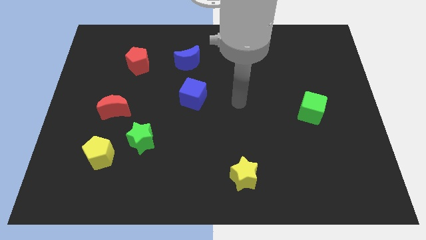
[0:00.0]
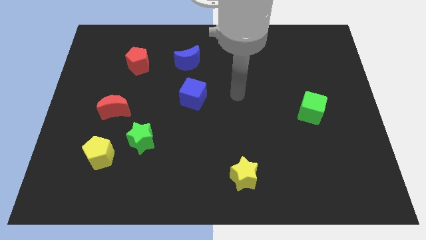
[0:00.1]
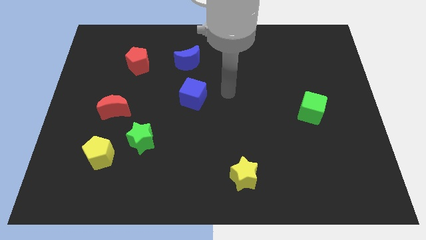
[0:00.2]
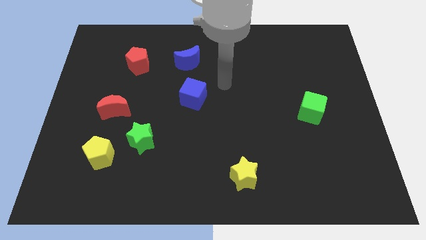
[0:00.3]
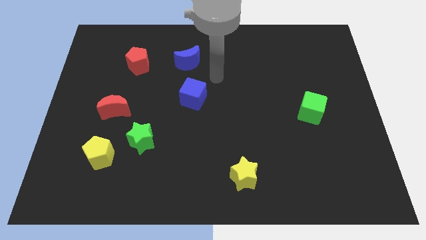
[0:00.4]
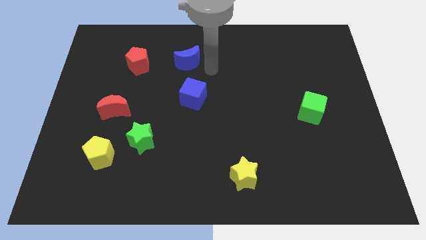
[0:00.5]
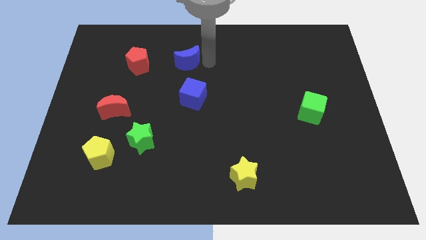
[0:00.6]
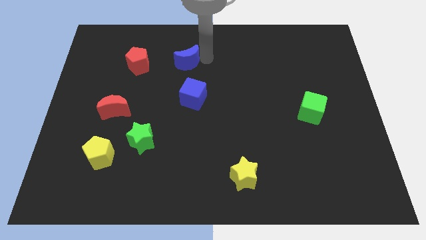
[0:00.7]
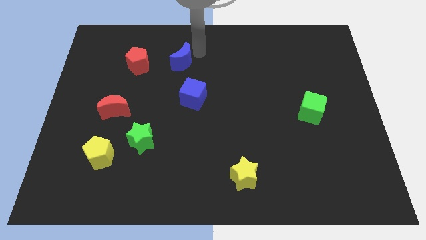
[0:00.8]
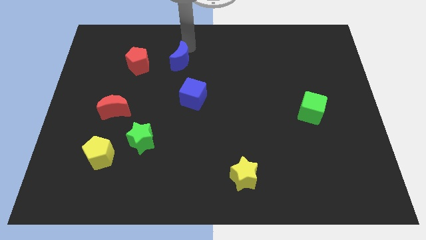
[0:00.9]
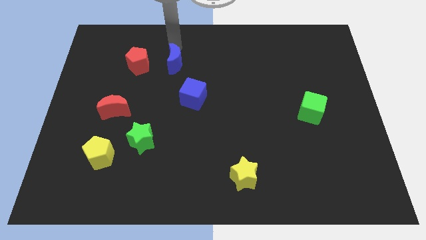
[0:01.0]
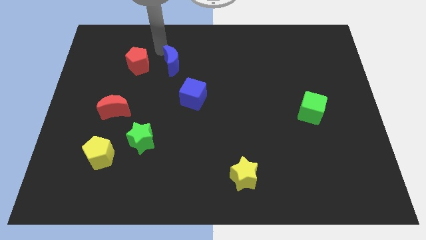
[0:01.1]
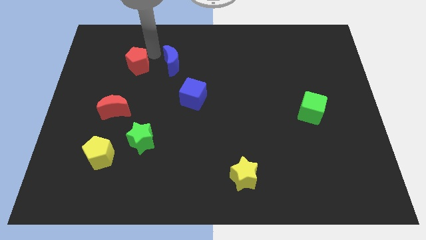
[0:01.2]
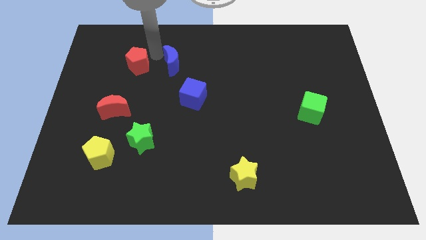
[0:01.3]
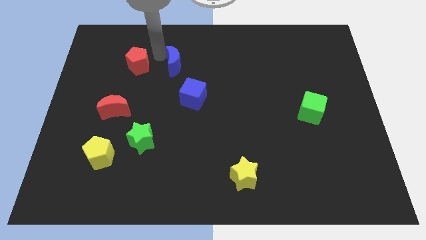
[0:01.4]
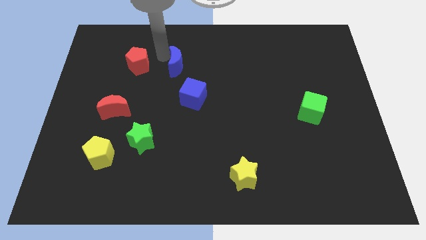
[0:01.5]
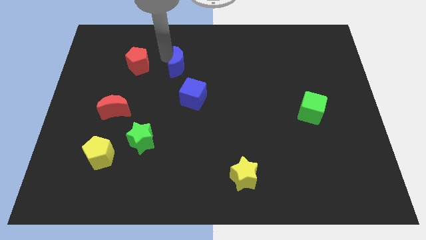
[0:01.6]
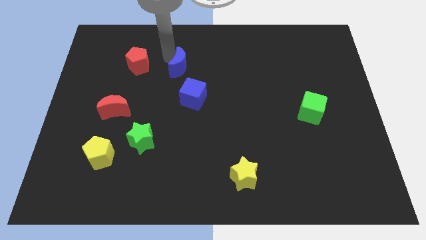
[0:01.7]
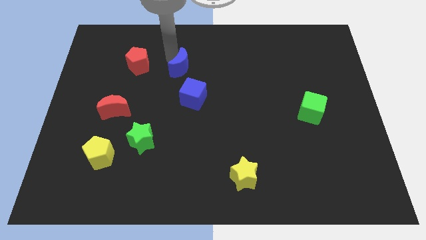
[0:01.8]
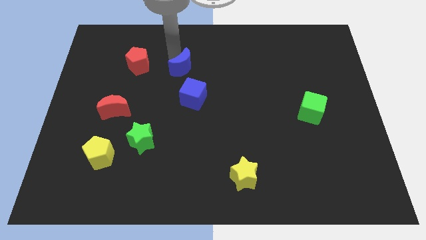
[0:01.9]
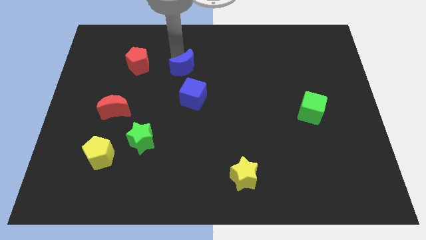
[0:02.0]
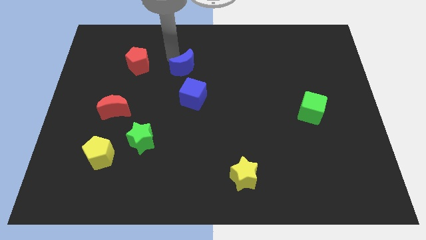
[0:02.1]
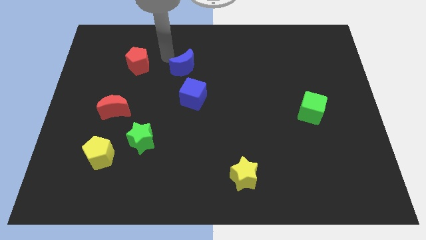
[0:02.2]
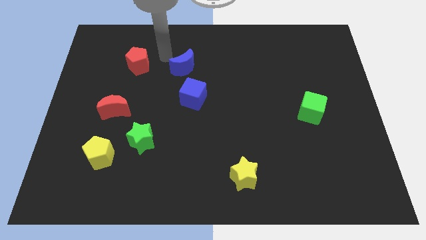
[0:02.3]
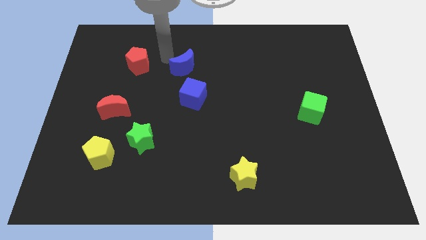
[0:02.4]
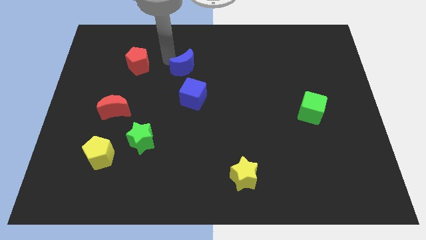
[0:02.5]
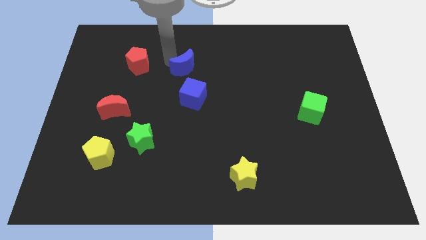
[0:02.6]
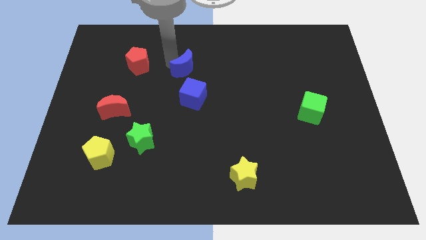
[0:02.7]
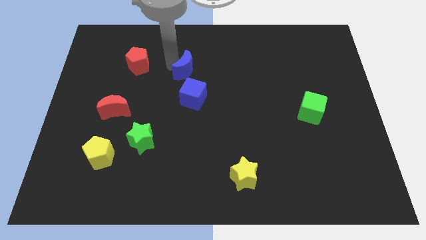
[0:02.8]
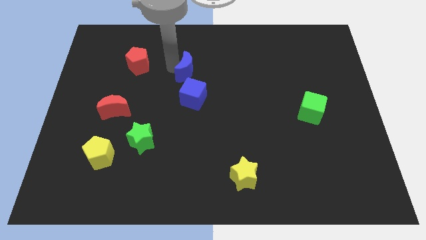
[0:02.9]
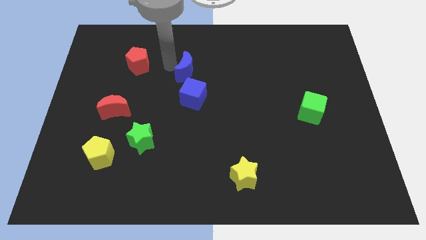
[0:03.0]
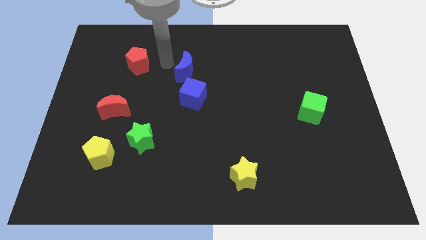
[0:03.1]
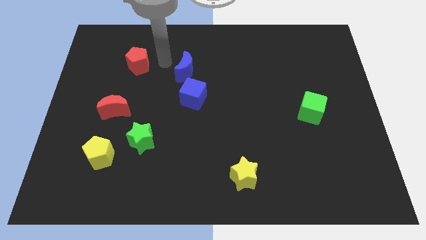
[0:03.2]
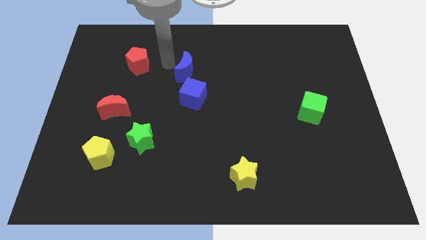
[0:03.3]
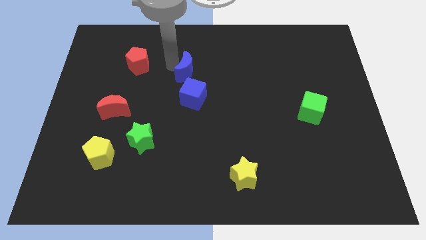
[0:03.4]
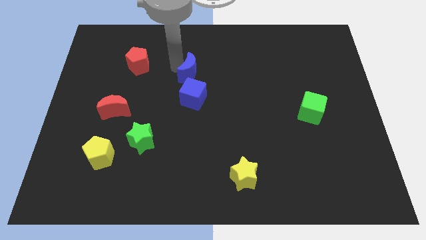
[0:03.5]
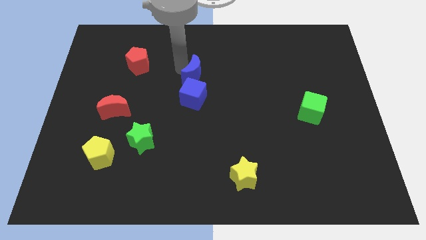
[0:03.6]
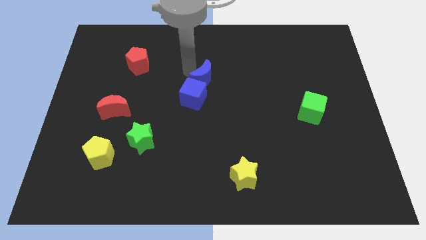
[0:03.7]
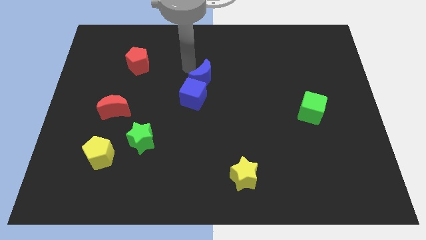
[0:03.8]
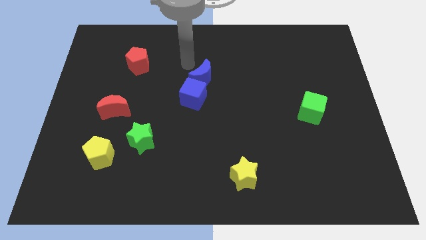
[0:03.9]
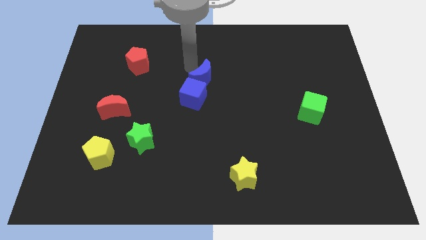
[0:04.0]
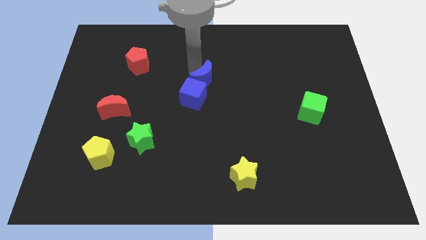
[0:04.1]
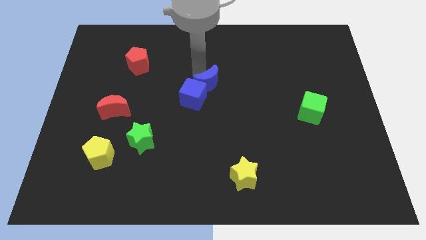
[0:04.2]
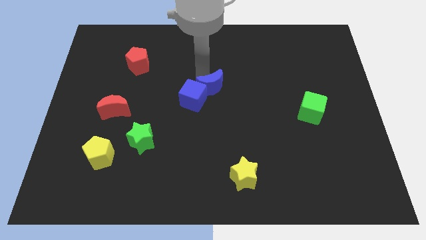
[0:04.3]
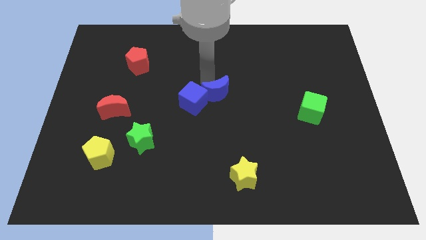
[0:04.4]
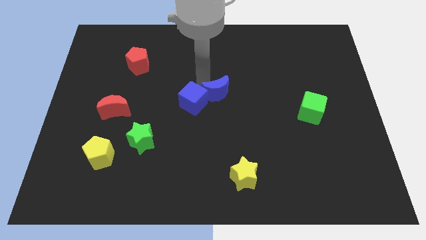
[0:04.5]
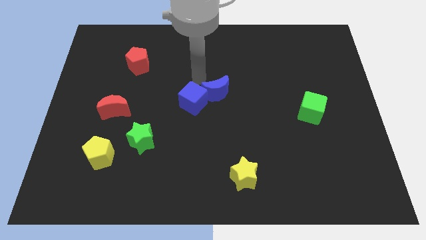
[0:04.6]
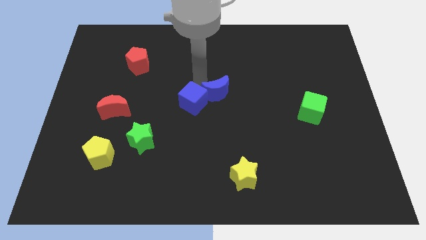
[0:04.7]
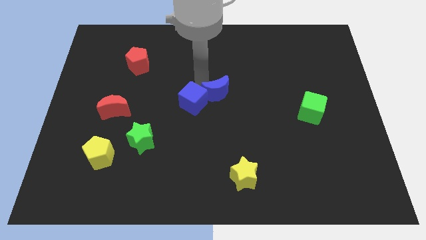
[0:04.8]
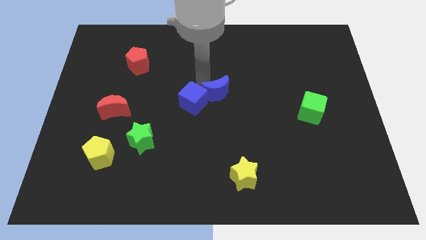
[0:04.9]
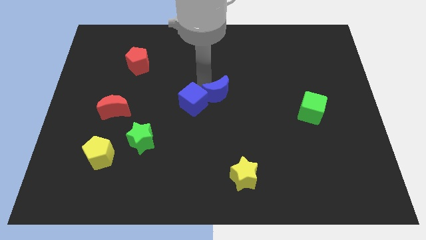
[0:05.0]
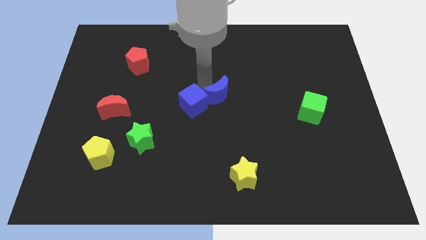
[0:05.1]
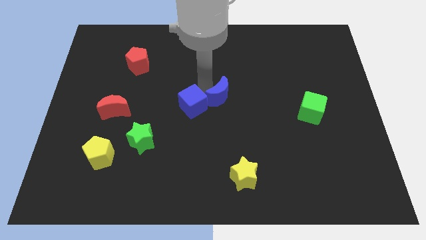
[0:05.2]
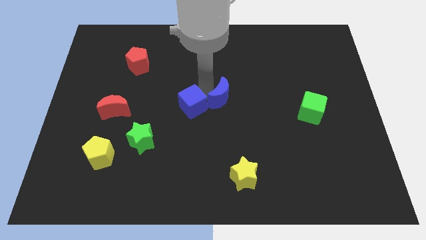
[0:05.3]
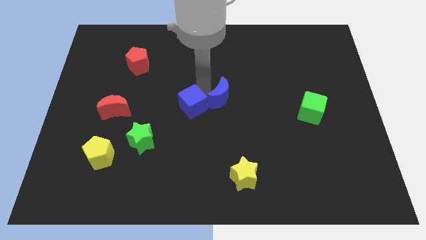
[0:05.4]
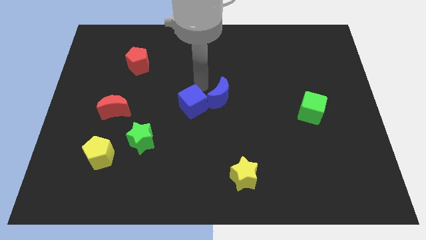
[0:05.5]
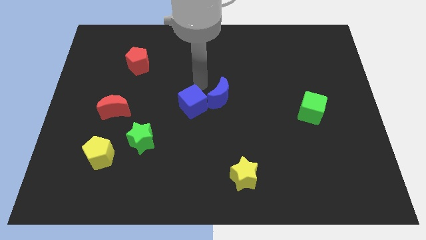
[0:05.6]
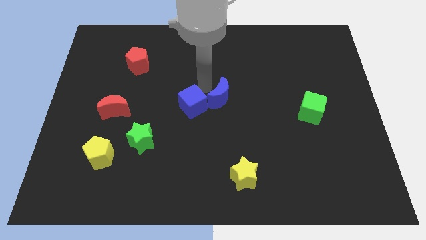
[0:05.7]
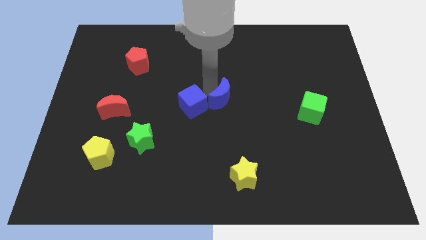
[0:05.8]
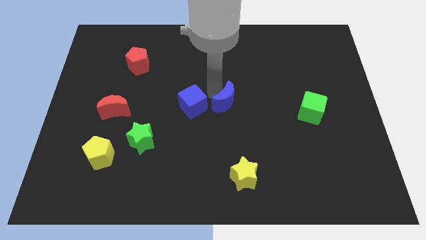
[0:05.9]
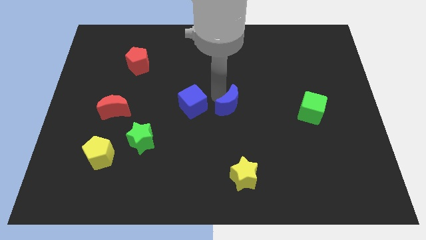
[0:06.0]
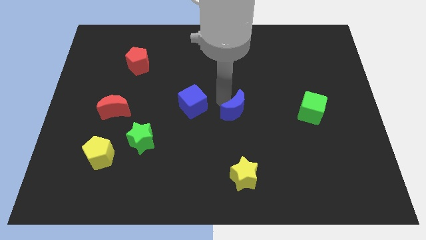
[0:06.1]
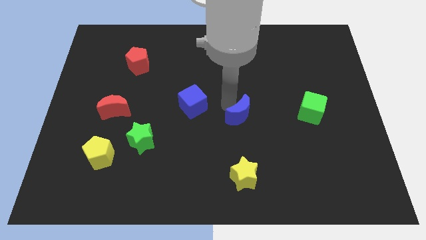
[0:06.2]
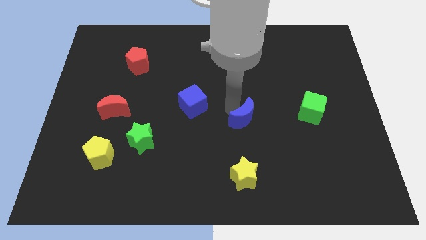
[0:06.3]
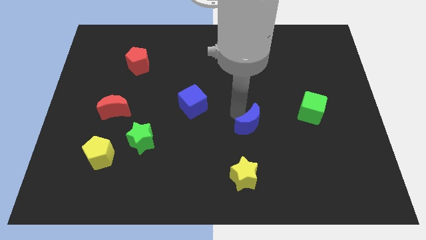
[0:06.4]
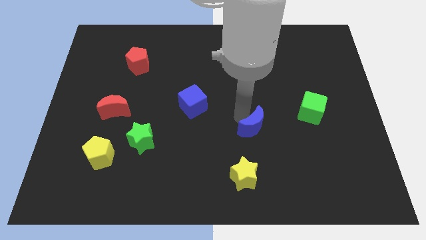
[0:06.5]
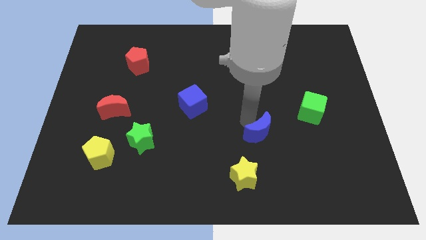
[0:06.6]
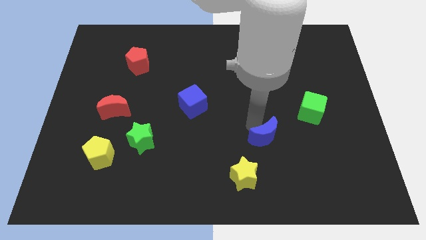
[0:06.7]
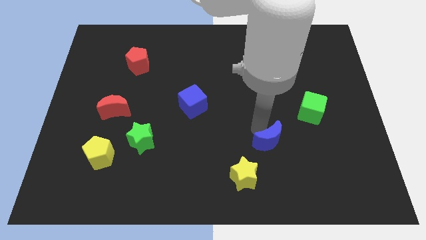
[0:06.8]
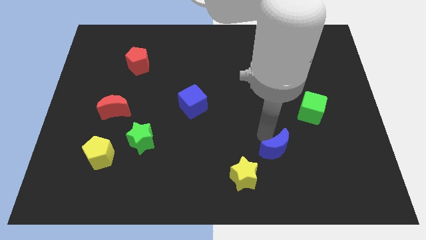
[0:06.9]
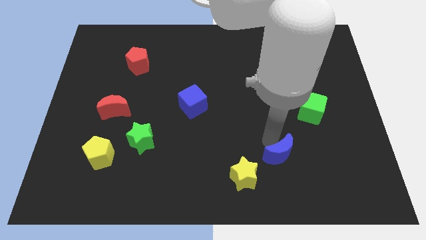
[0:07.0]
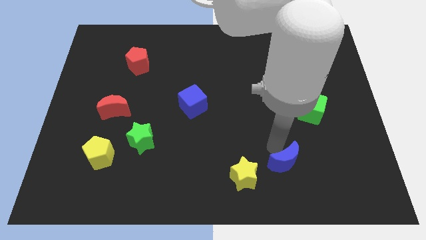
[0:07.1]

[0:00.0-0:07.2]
put the blue moon just right of the yellow star
